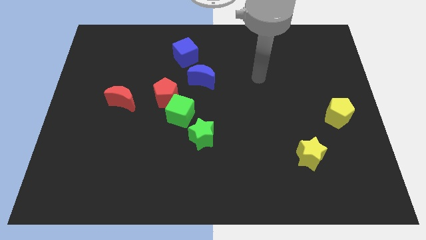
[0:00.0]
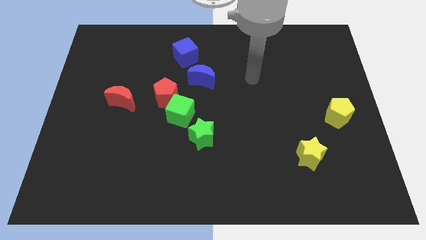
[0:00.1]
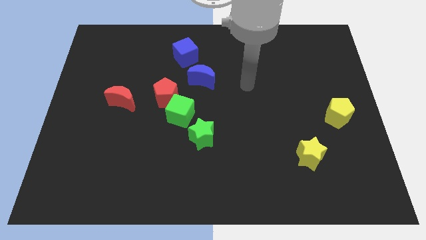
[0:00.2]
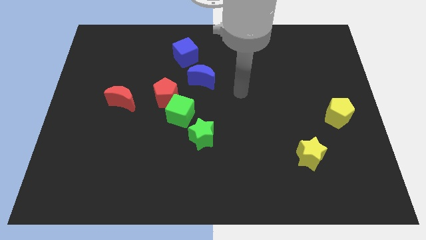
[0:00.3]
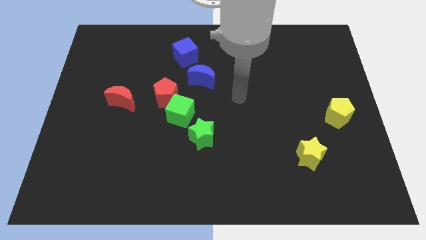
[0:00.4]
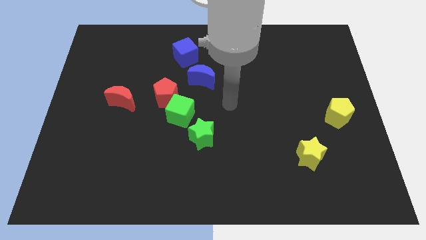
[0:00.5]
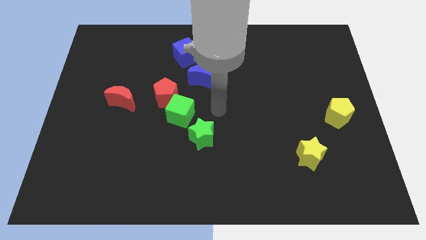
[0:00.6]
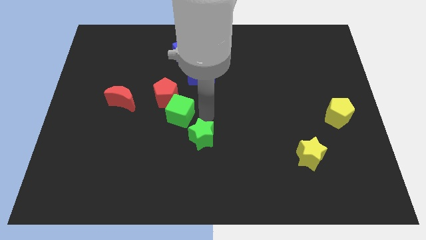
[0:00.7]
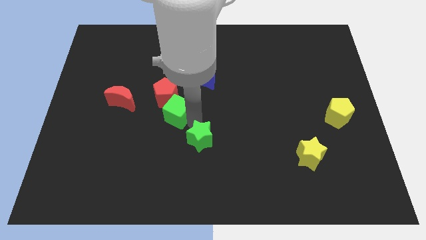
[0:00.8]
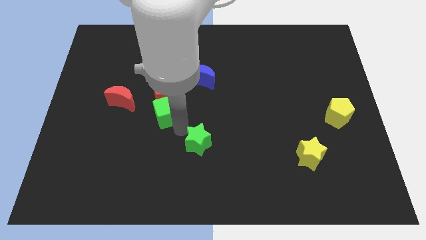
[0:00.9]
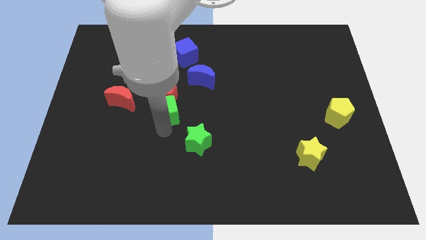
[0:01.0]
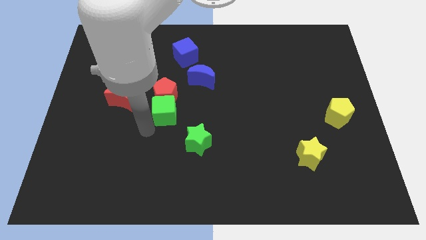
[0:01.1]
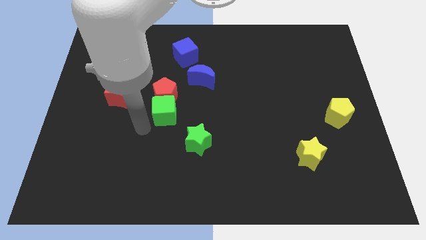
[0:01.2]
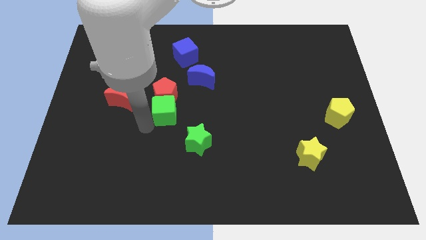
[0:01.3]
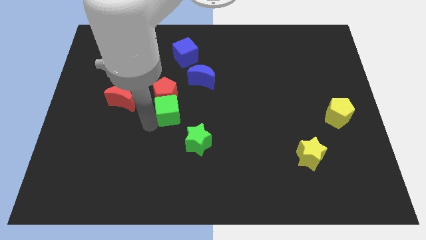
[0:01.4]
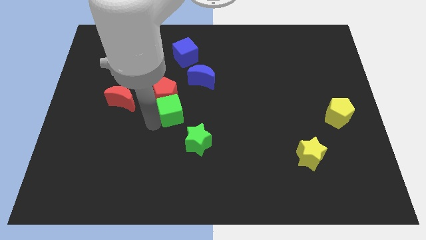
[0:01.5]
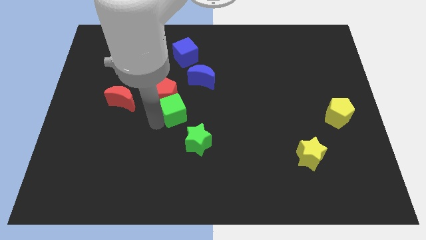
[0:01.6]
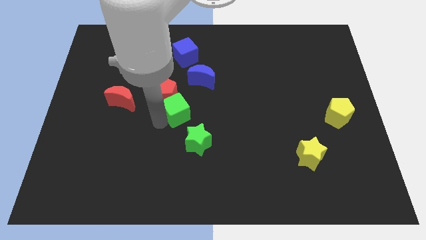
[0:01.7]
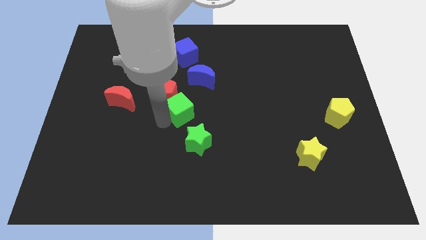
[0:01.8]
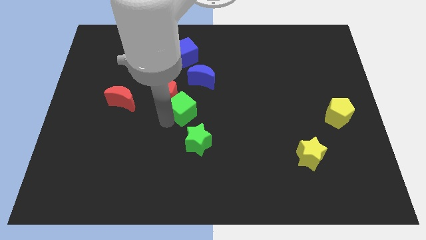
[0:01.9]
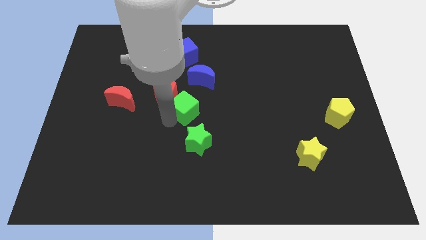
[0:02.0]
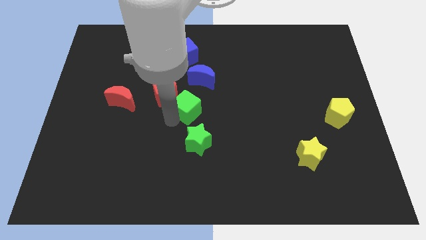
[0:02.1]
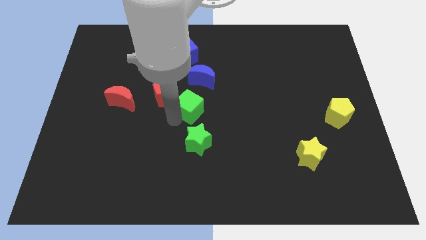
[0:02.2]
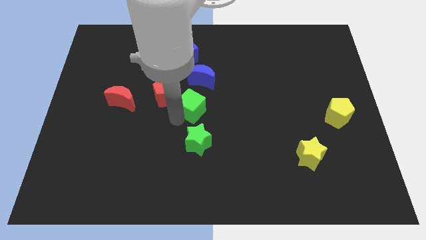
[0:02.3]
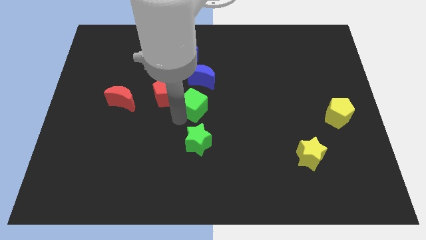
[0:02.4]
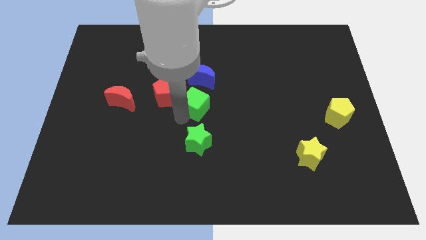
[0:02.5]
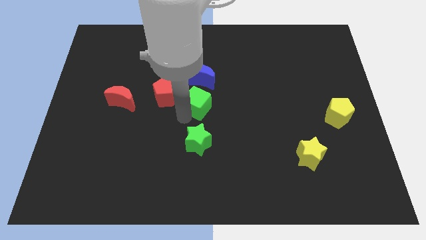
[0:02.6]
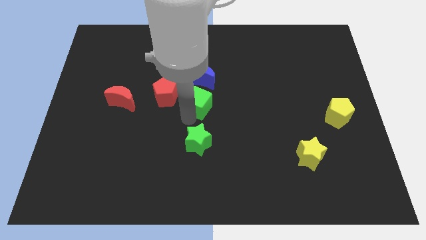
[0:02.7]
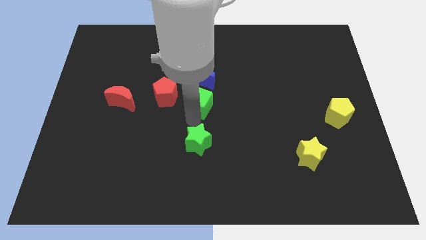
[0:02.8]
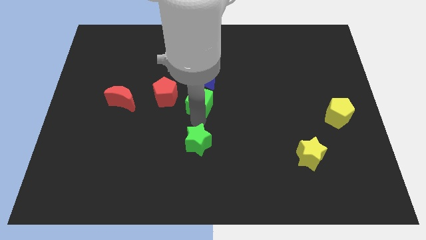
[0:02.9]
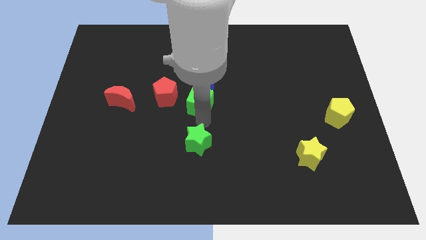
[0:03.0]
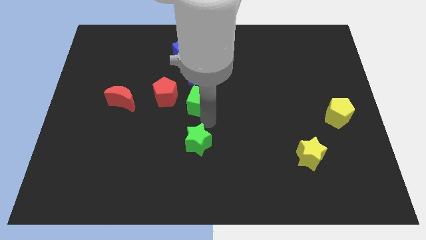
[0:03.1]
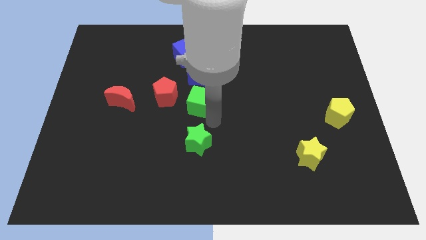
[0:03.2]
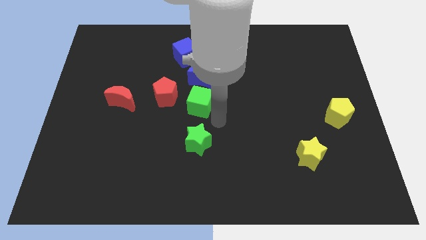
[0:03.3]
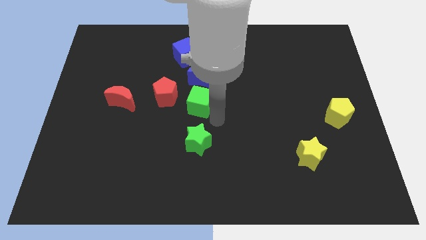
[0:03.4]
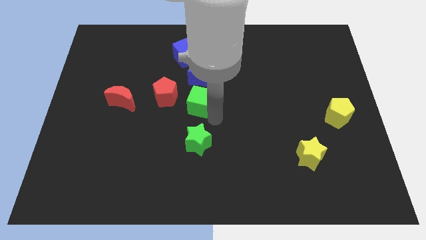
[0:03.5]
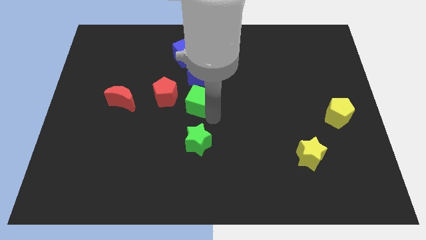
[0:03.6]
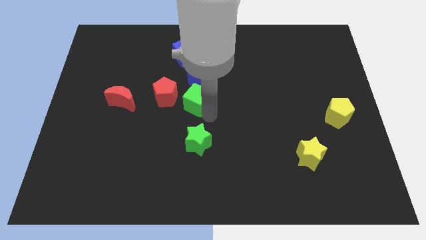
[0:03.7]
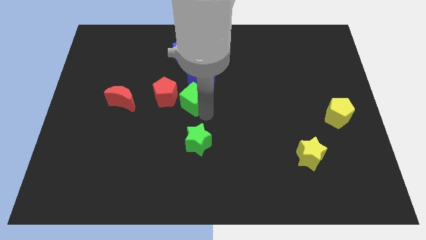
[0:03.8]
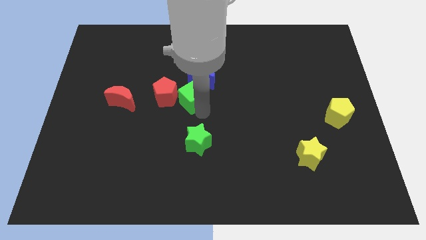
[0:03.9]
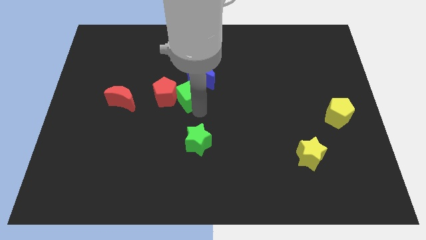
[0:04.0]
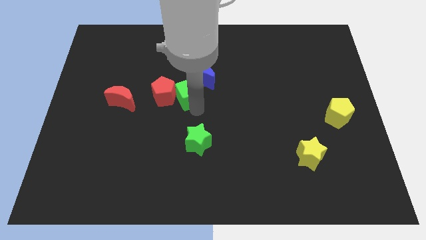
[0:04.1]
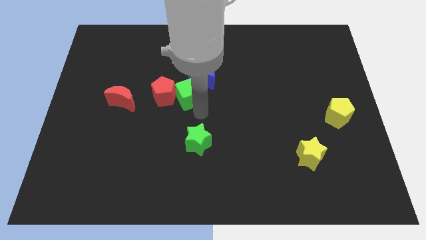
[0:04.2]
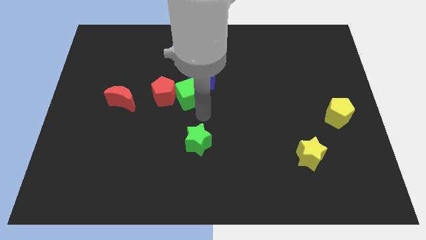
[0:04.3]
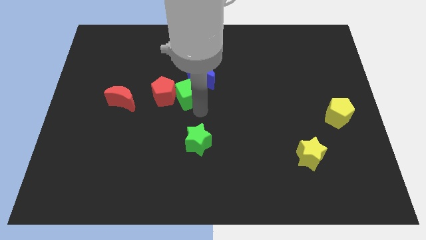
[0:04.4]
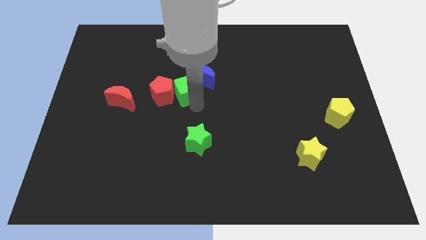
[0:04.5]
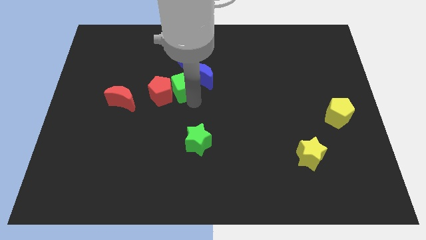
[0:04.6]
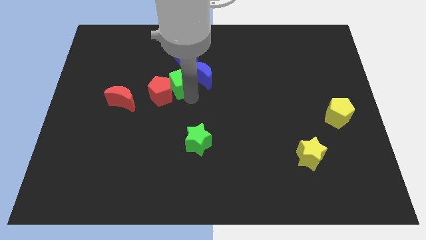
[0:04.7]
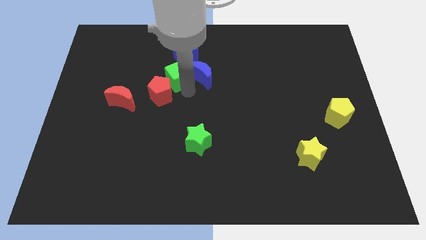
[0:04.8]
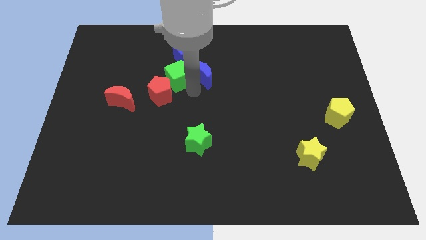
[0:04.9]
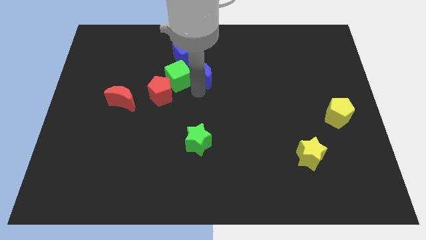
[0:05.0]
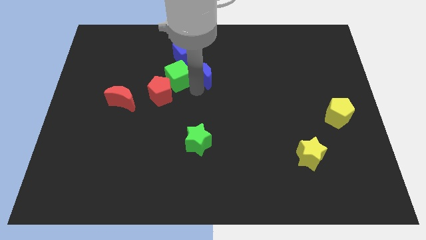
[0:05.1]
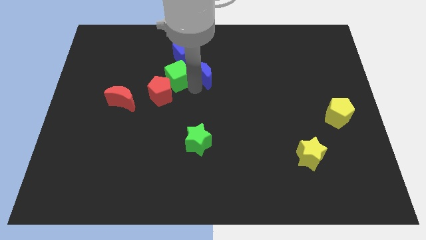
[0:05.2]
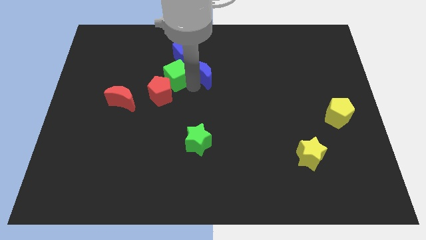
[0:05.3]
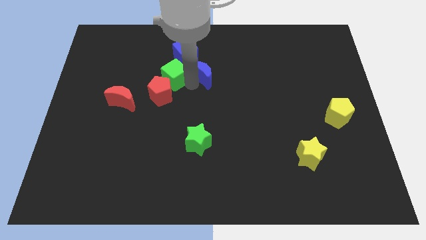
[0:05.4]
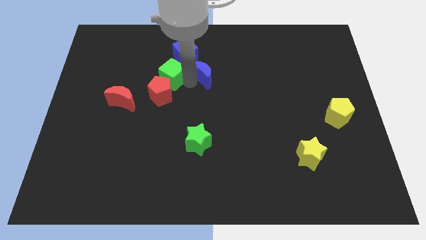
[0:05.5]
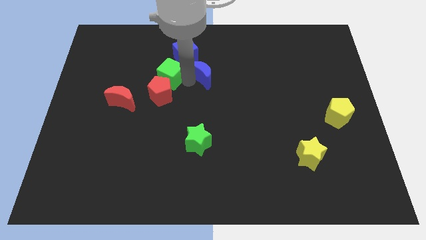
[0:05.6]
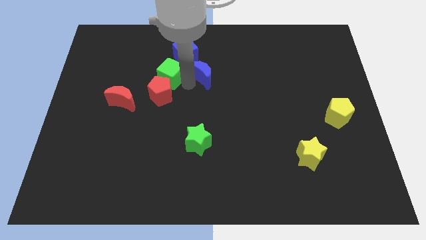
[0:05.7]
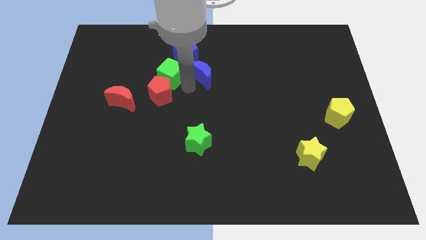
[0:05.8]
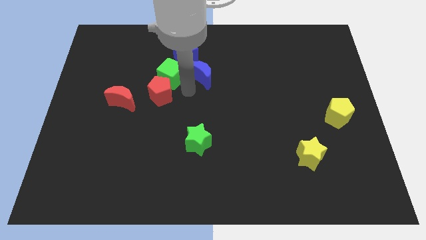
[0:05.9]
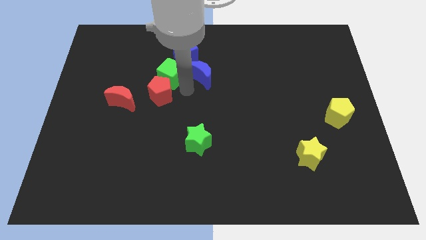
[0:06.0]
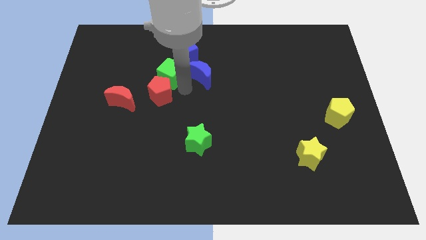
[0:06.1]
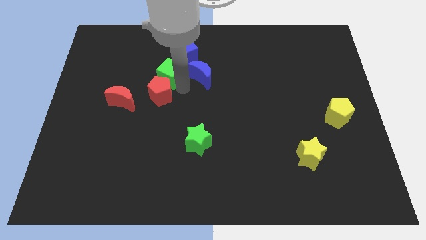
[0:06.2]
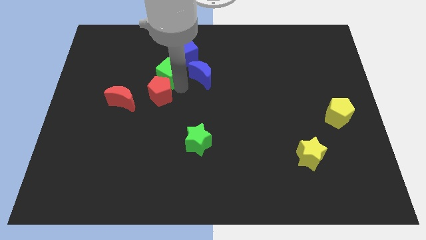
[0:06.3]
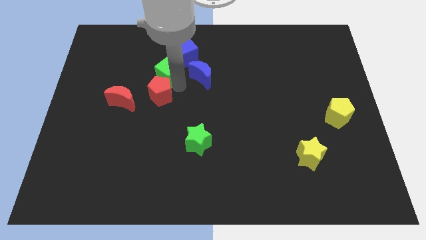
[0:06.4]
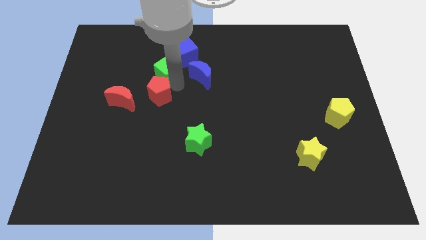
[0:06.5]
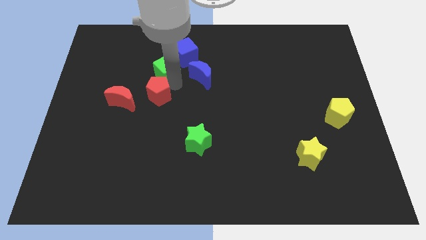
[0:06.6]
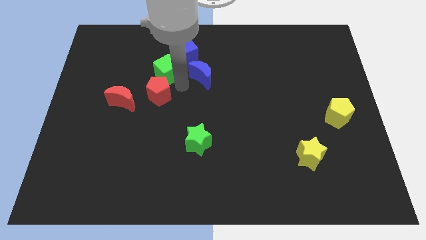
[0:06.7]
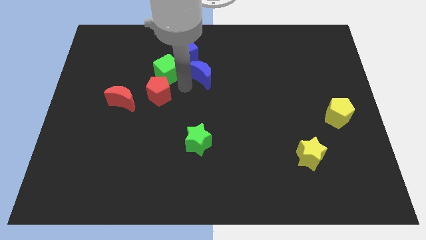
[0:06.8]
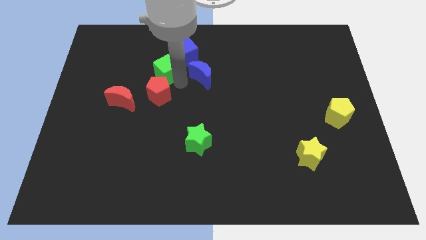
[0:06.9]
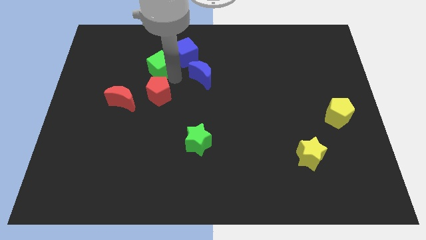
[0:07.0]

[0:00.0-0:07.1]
slide the green cube to the left of the blue cube
